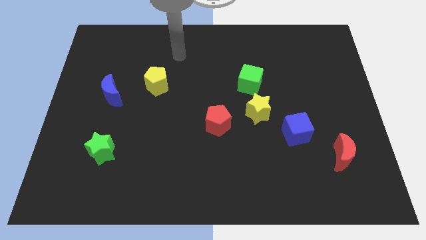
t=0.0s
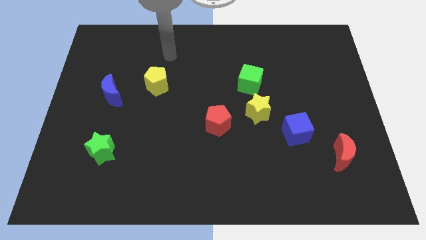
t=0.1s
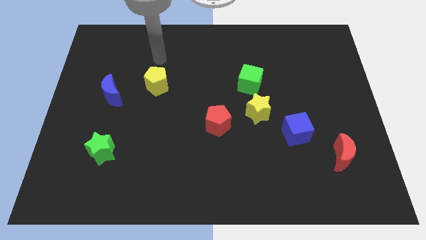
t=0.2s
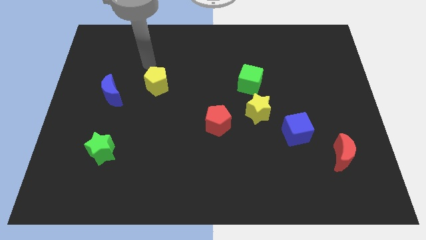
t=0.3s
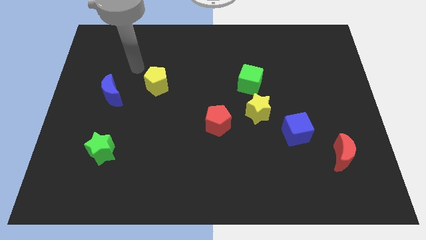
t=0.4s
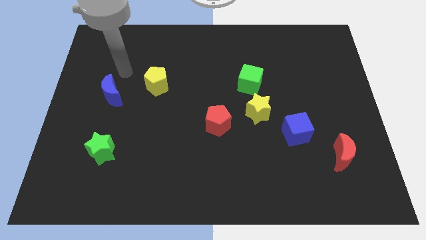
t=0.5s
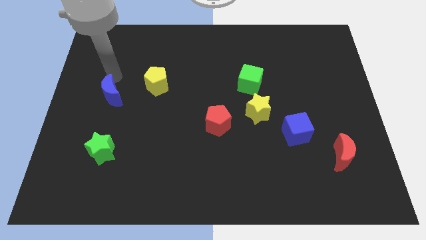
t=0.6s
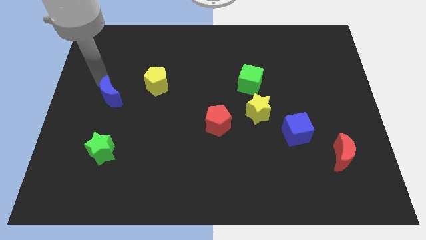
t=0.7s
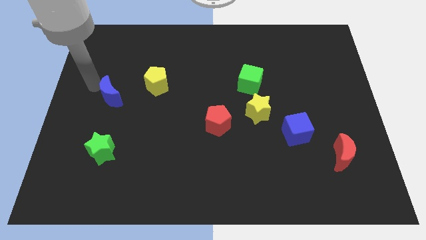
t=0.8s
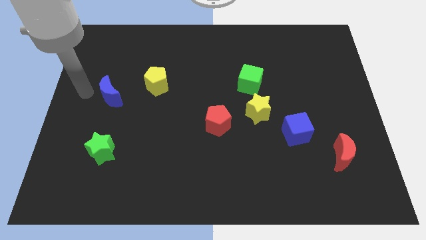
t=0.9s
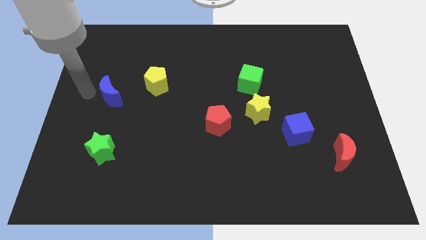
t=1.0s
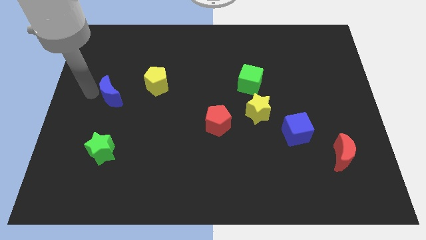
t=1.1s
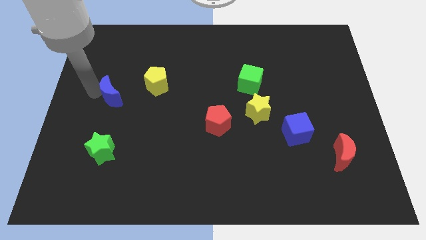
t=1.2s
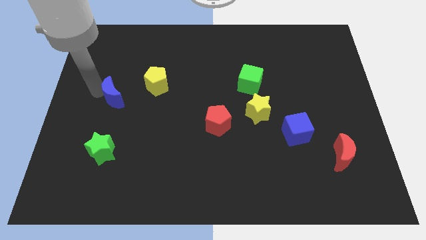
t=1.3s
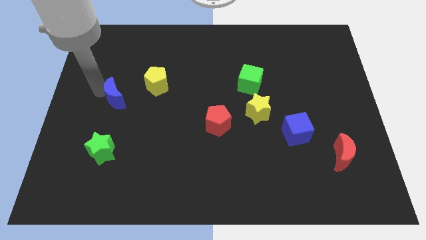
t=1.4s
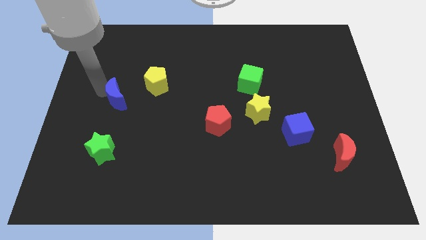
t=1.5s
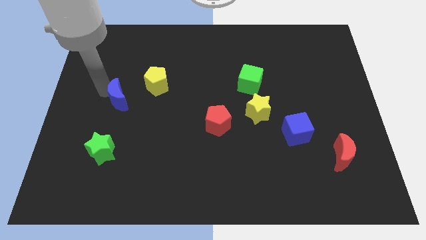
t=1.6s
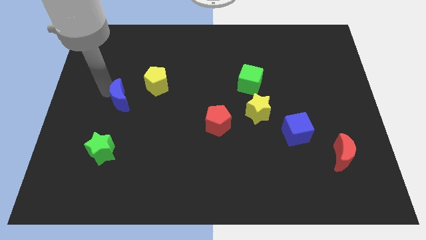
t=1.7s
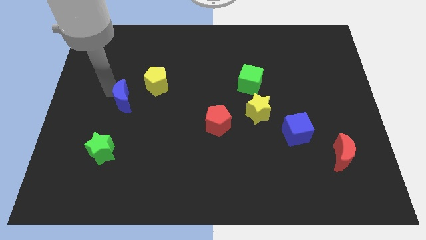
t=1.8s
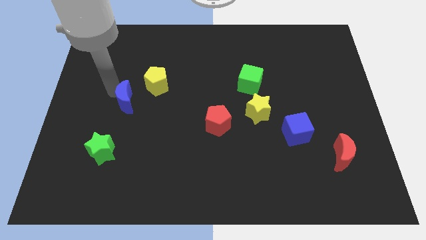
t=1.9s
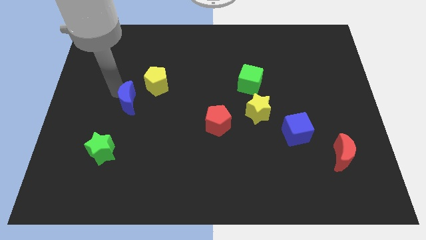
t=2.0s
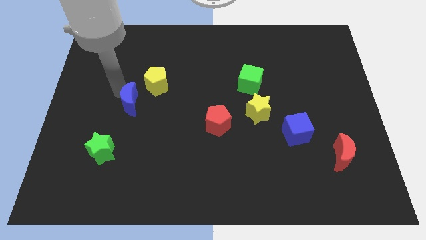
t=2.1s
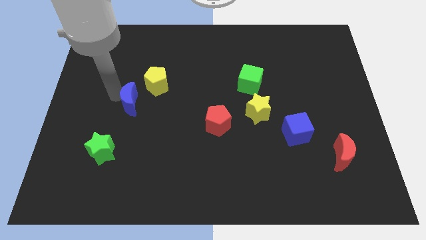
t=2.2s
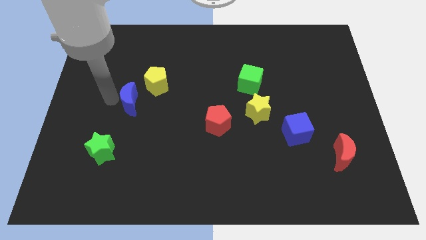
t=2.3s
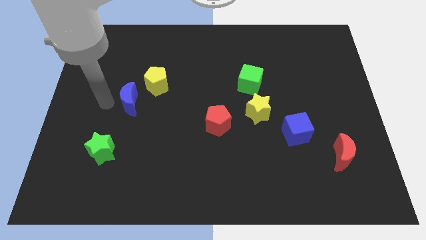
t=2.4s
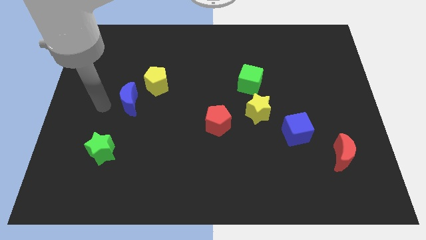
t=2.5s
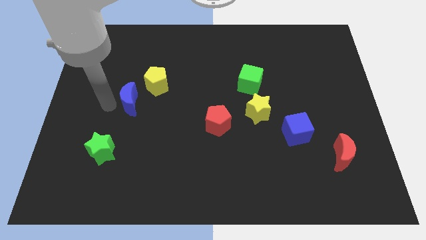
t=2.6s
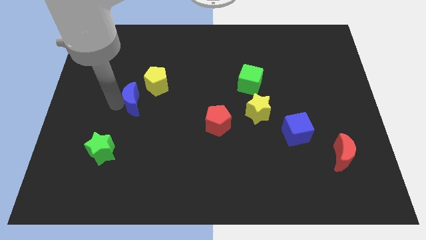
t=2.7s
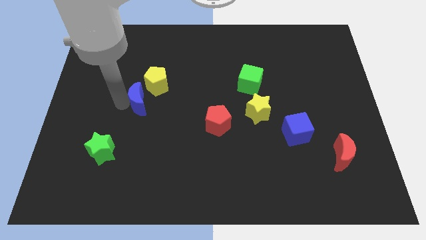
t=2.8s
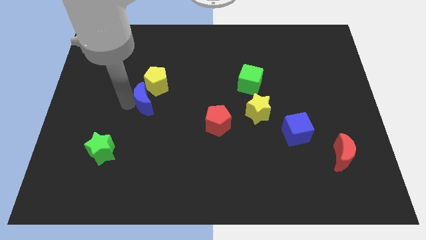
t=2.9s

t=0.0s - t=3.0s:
slightly push the blue moon right

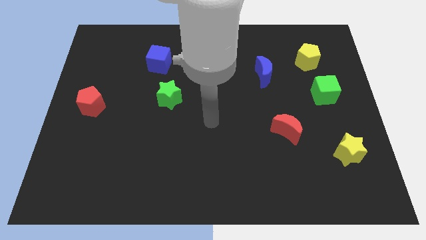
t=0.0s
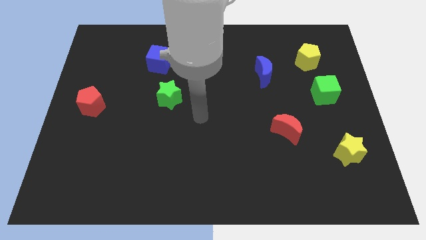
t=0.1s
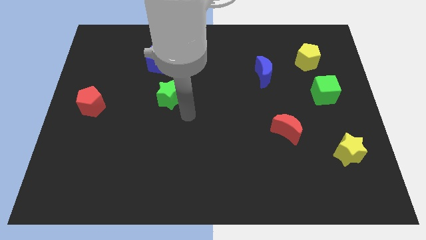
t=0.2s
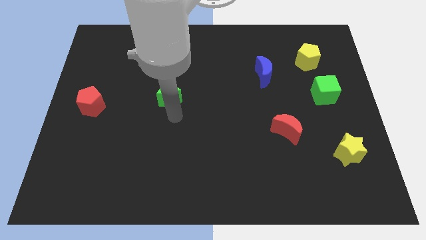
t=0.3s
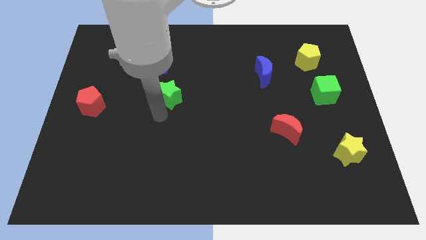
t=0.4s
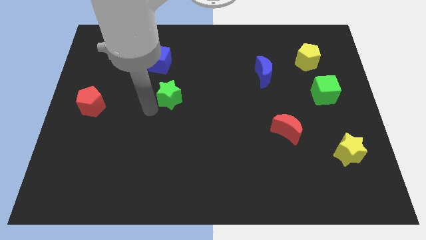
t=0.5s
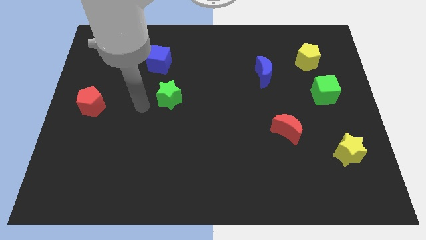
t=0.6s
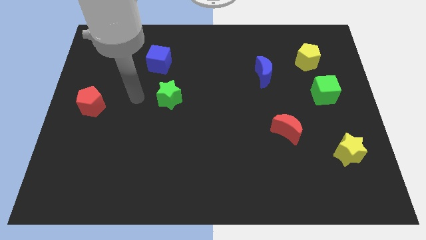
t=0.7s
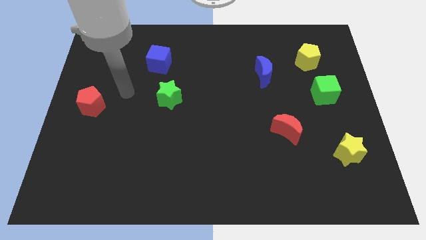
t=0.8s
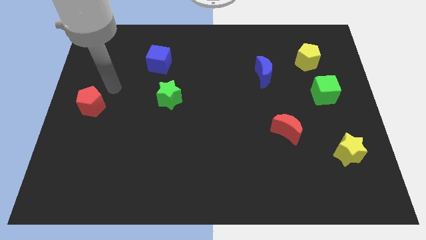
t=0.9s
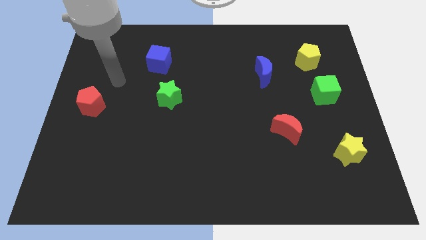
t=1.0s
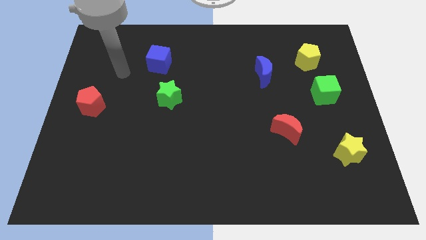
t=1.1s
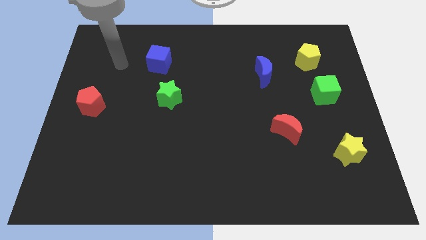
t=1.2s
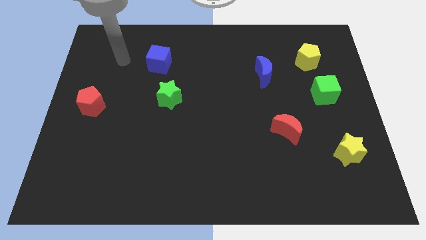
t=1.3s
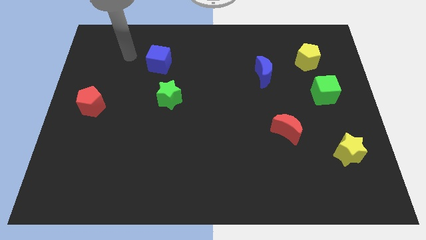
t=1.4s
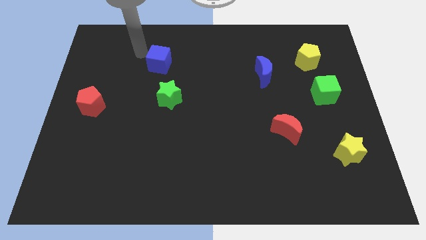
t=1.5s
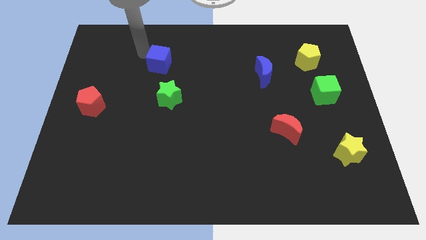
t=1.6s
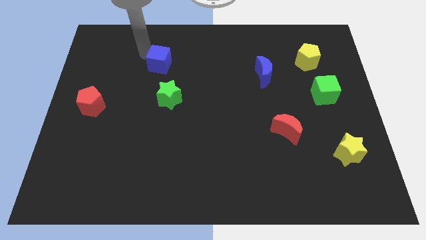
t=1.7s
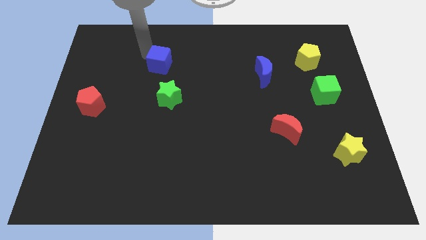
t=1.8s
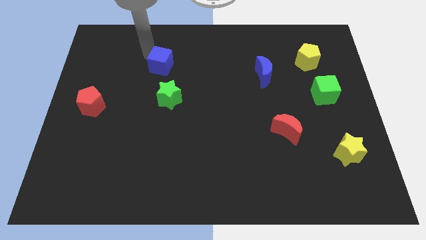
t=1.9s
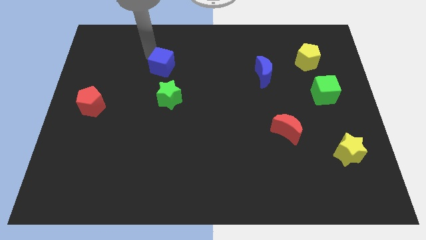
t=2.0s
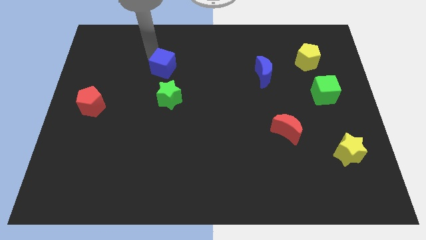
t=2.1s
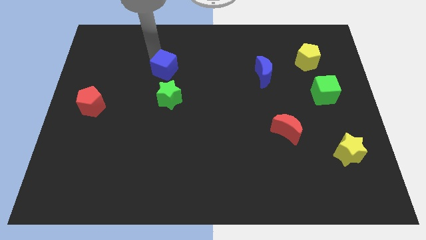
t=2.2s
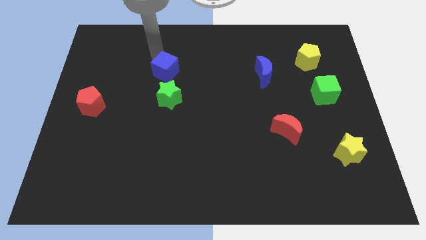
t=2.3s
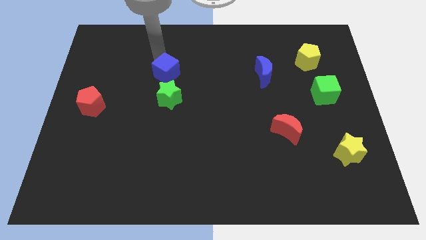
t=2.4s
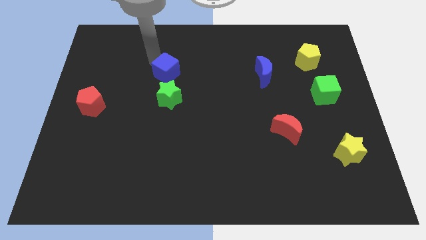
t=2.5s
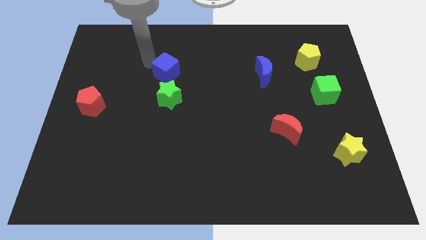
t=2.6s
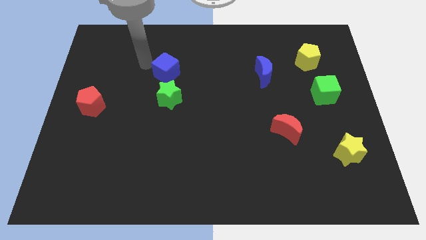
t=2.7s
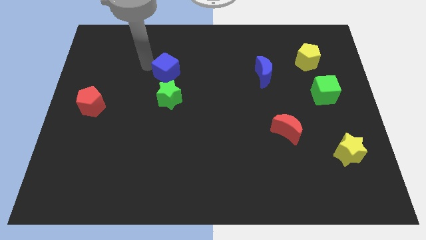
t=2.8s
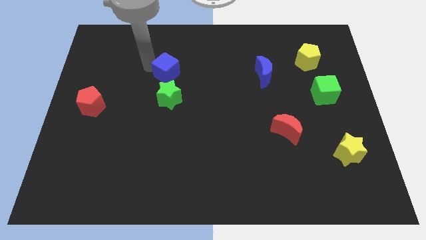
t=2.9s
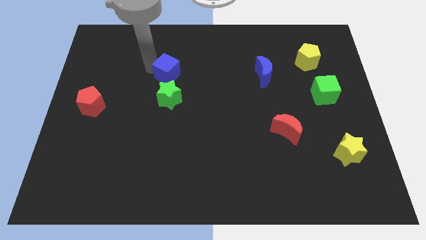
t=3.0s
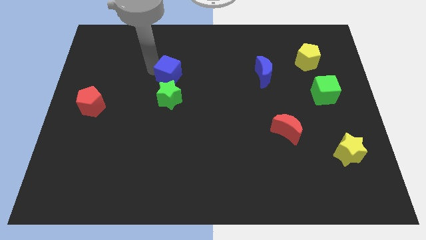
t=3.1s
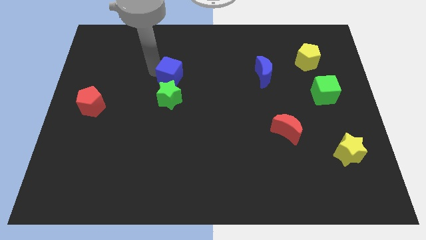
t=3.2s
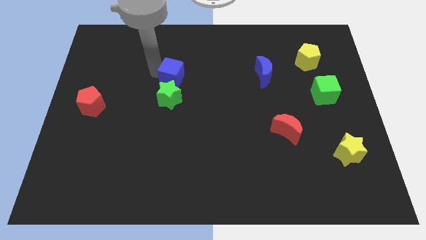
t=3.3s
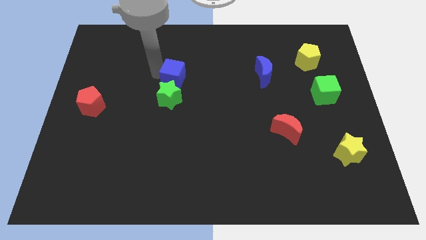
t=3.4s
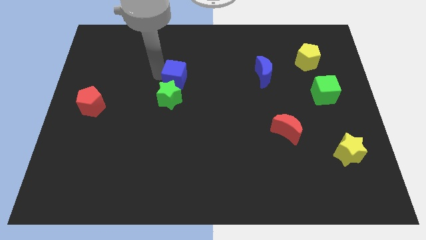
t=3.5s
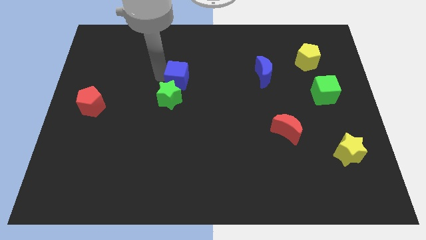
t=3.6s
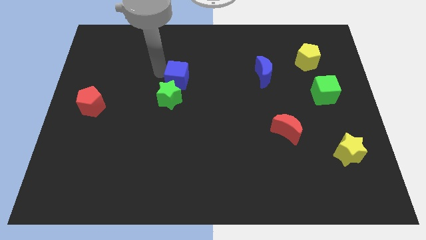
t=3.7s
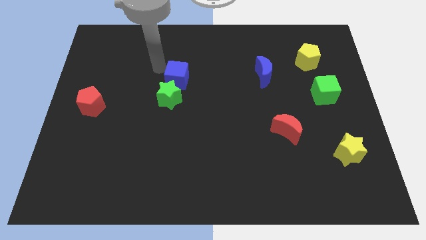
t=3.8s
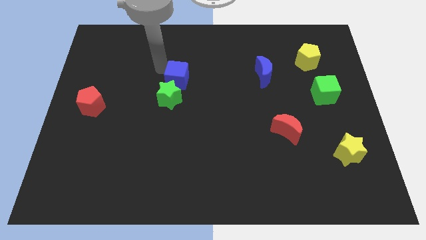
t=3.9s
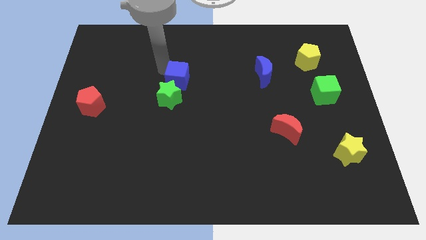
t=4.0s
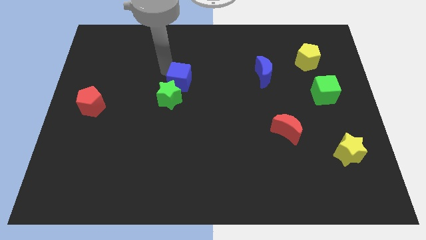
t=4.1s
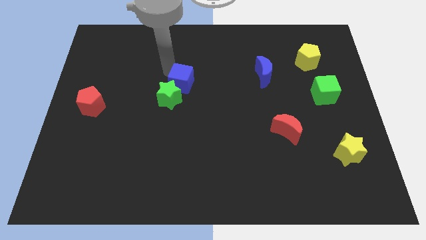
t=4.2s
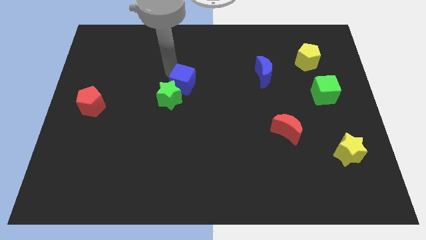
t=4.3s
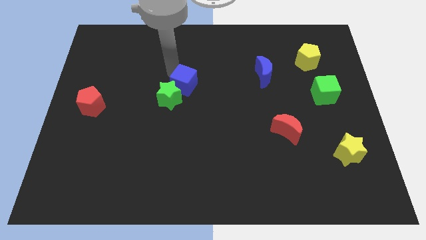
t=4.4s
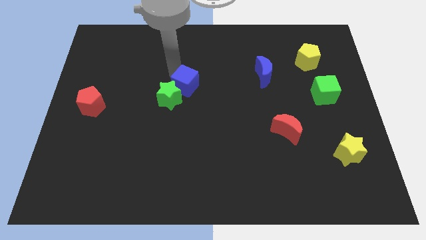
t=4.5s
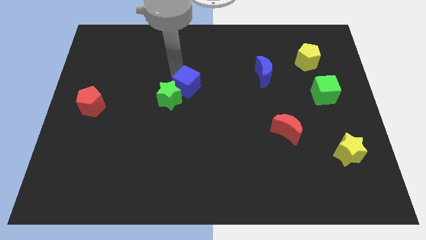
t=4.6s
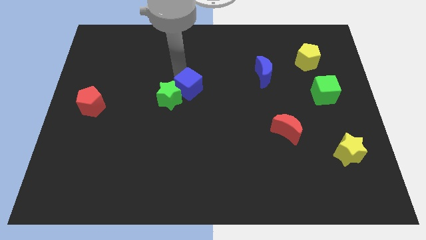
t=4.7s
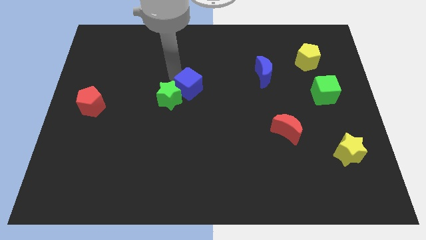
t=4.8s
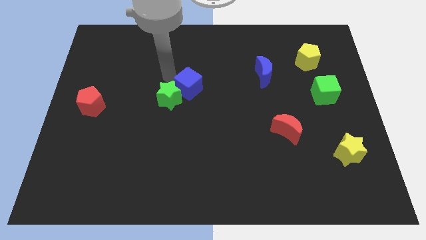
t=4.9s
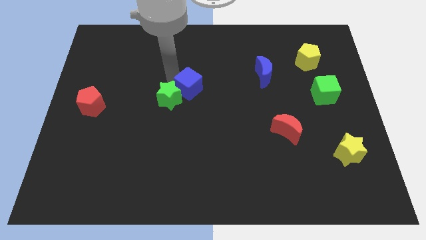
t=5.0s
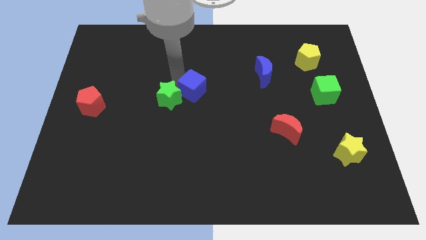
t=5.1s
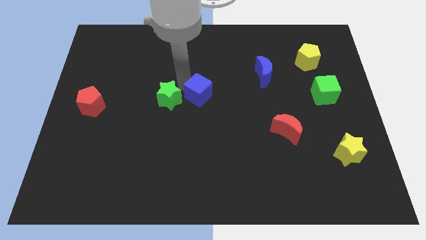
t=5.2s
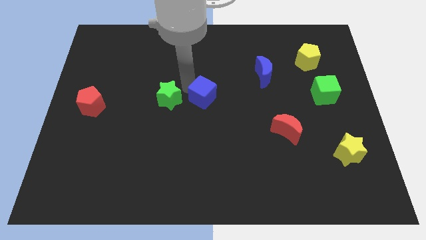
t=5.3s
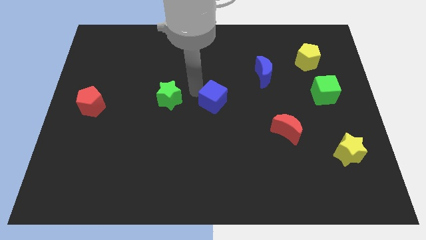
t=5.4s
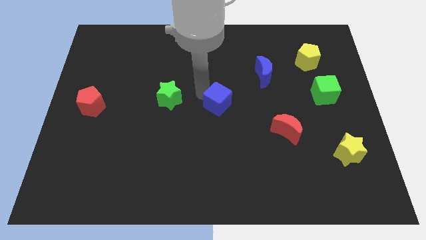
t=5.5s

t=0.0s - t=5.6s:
move the blue cube down and then to the right
